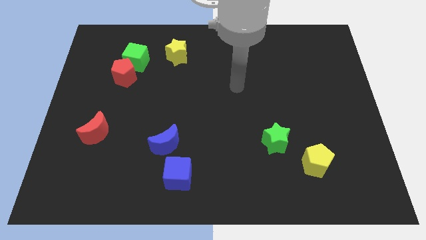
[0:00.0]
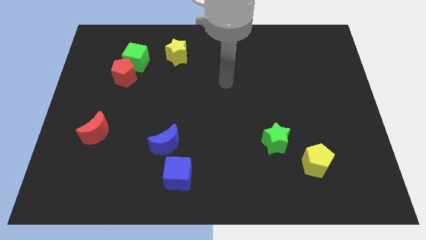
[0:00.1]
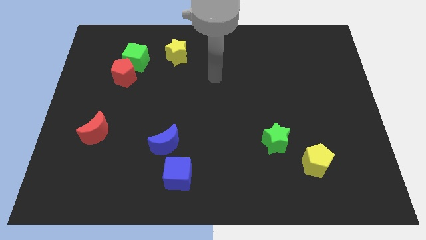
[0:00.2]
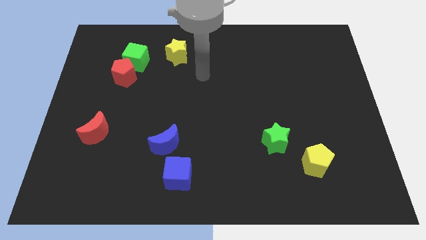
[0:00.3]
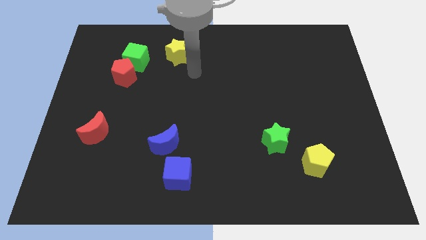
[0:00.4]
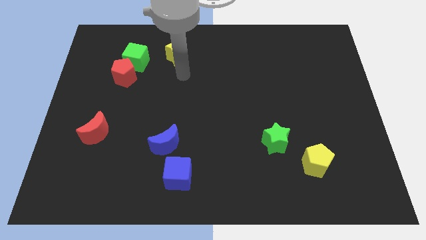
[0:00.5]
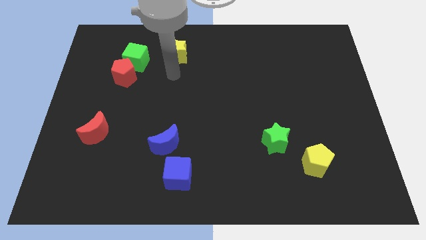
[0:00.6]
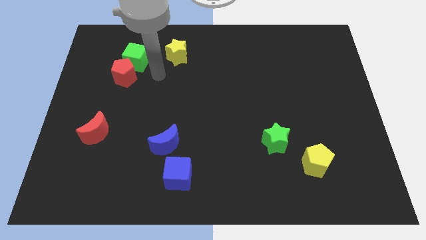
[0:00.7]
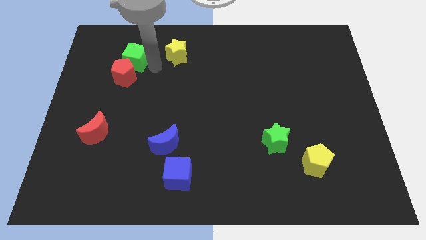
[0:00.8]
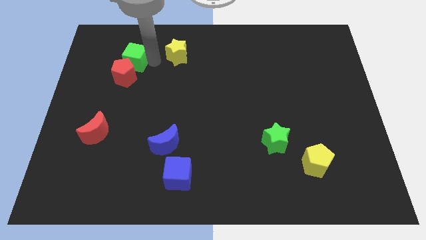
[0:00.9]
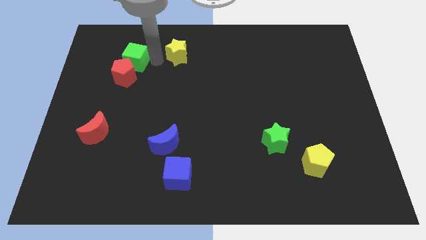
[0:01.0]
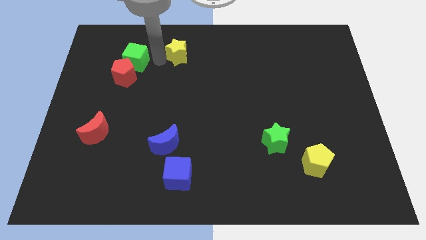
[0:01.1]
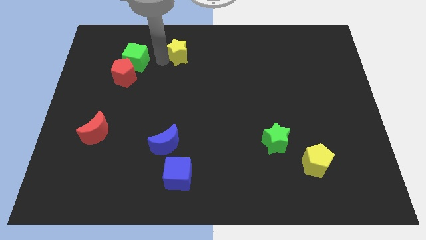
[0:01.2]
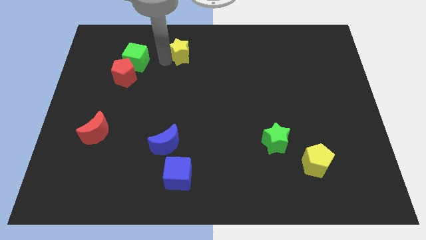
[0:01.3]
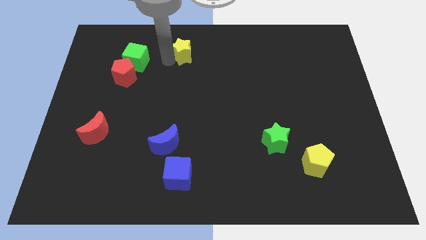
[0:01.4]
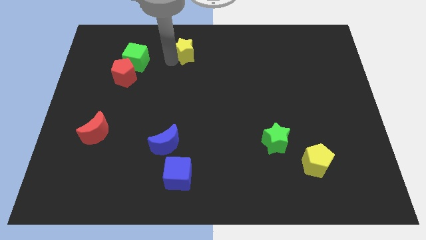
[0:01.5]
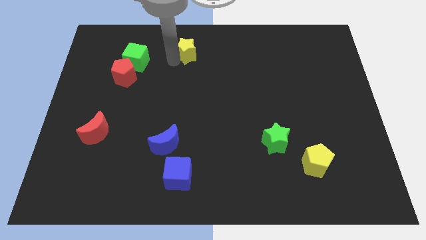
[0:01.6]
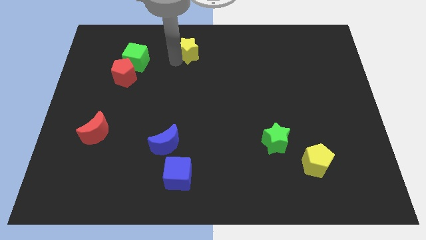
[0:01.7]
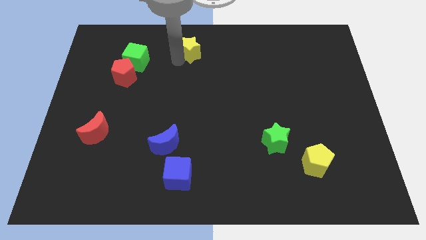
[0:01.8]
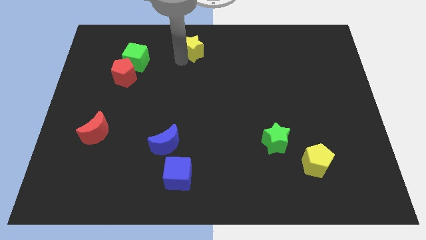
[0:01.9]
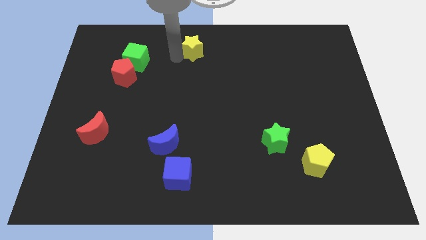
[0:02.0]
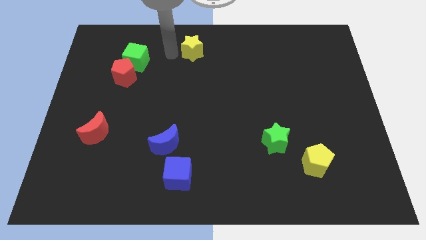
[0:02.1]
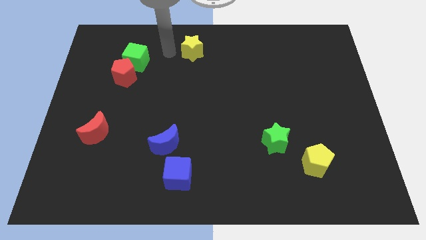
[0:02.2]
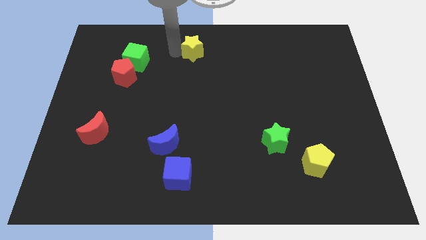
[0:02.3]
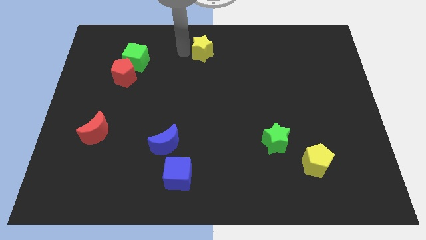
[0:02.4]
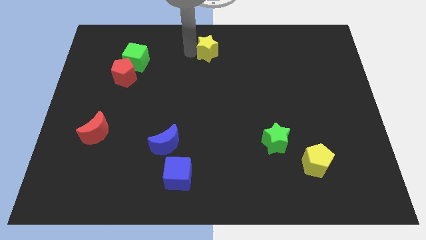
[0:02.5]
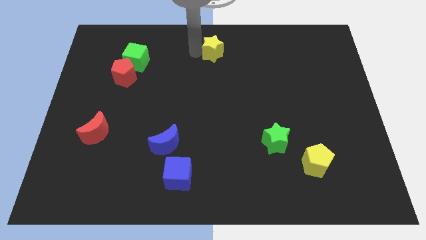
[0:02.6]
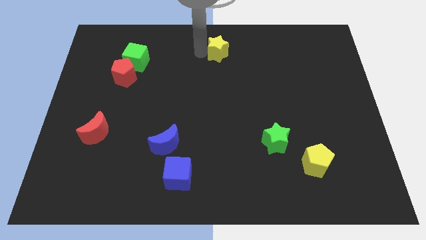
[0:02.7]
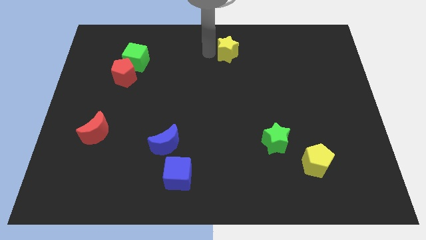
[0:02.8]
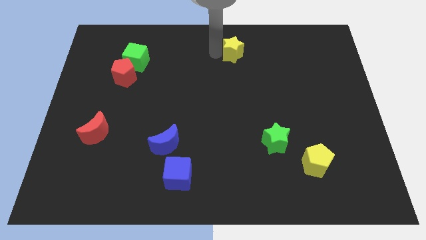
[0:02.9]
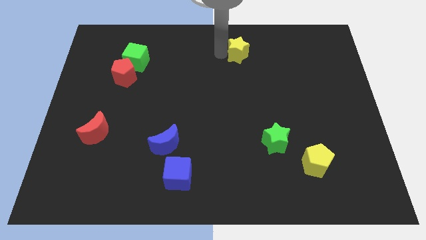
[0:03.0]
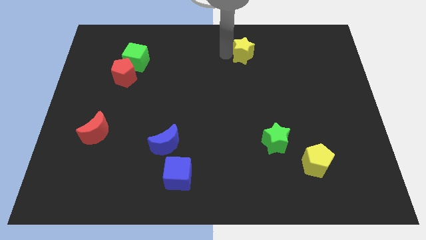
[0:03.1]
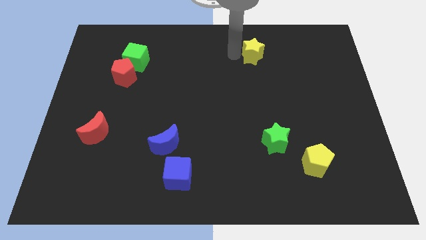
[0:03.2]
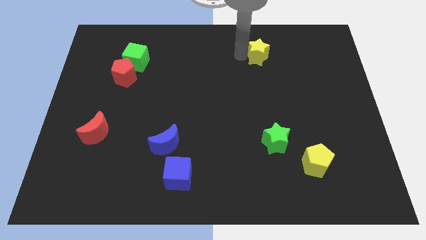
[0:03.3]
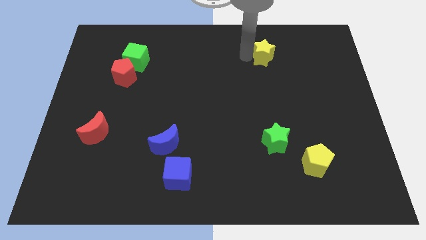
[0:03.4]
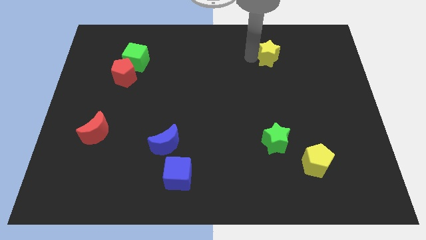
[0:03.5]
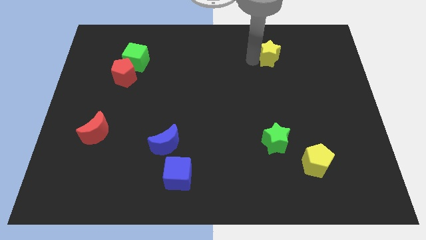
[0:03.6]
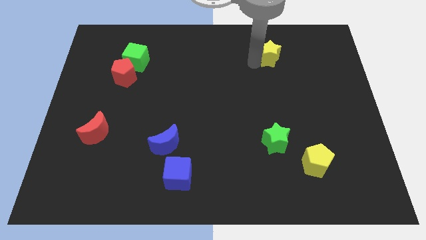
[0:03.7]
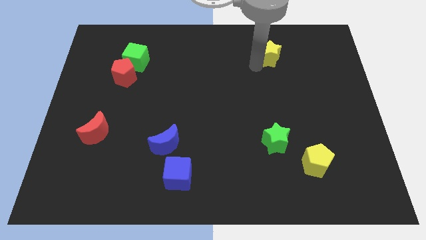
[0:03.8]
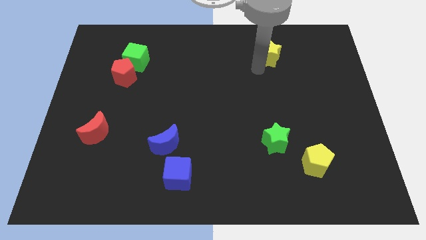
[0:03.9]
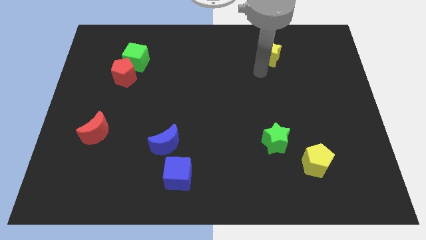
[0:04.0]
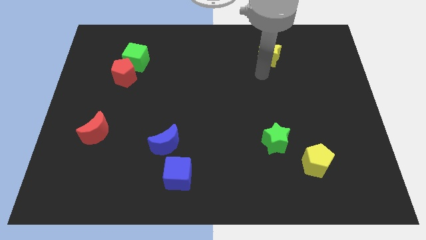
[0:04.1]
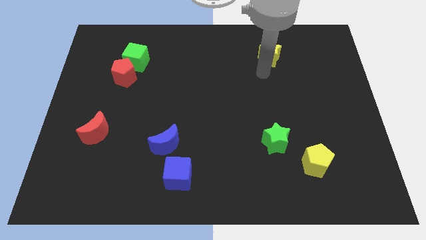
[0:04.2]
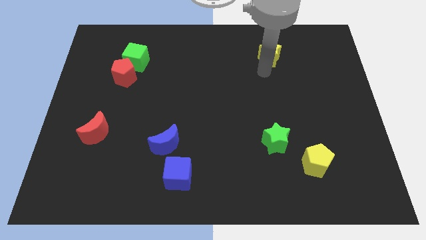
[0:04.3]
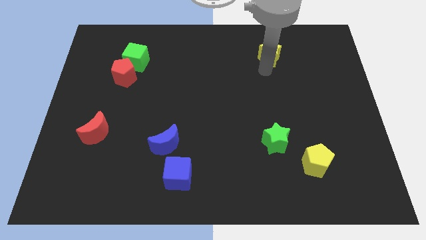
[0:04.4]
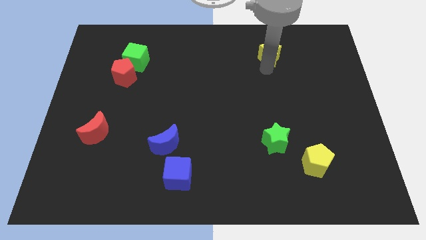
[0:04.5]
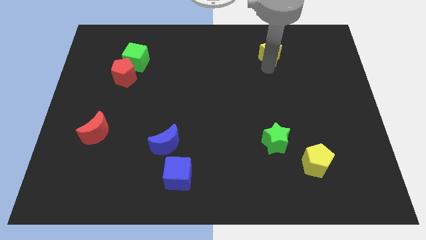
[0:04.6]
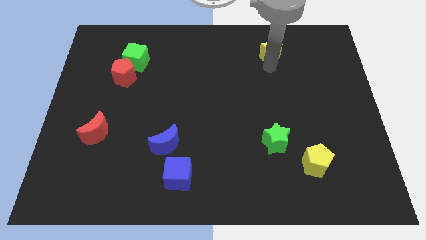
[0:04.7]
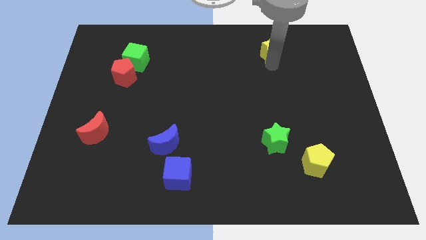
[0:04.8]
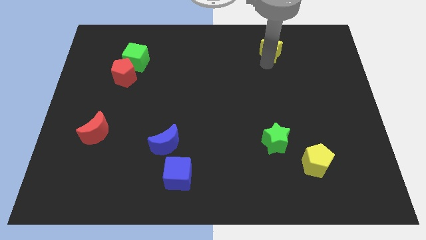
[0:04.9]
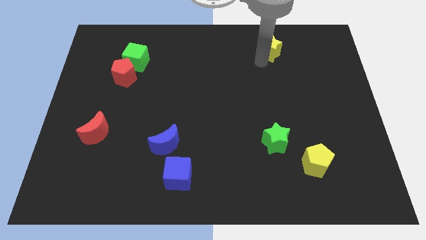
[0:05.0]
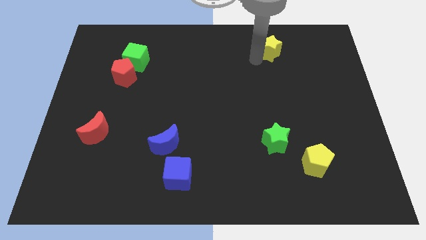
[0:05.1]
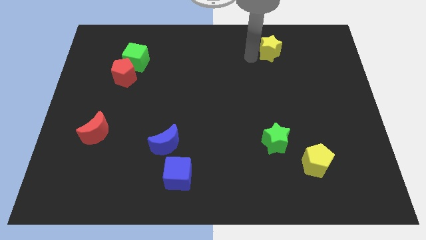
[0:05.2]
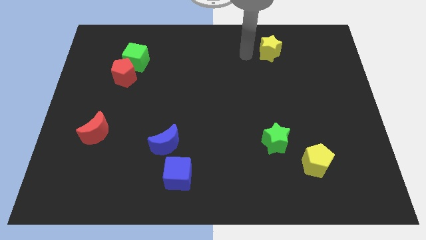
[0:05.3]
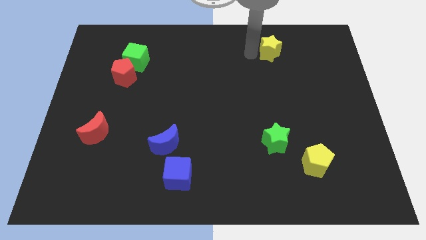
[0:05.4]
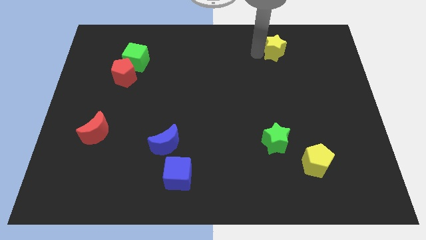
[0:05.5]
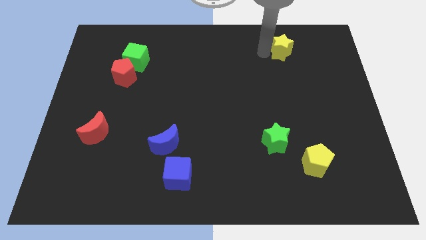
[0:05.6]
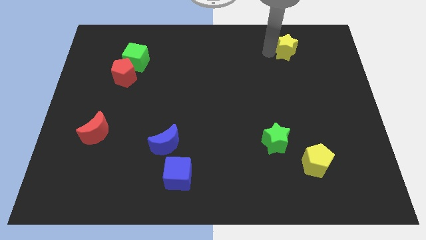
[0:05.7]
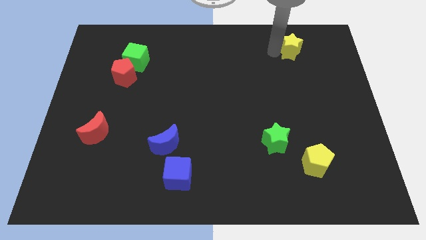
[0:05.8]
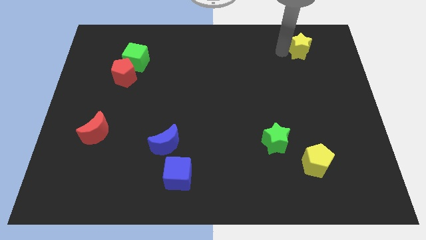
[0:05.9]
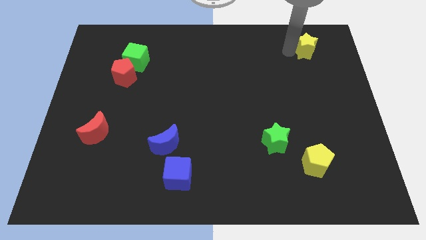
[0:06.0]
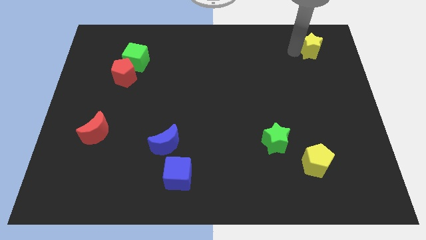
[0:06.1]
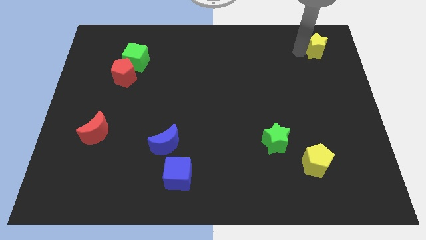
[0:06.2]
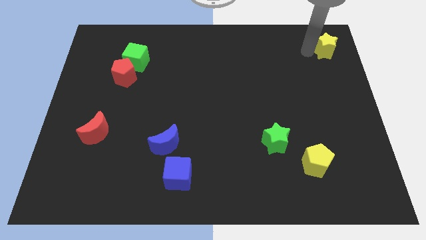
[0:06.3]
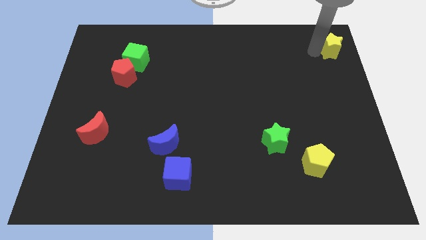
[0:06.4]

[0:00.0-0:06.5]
slide the yellow star to the top right

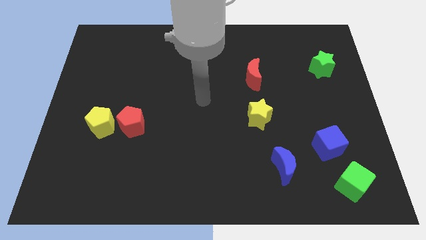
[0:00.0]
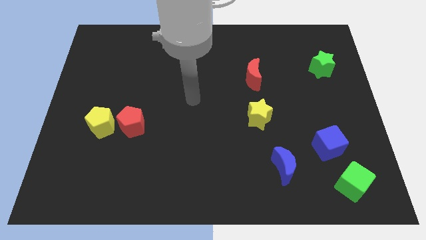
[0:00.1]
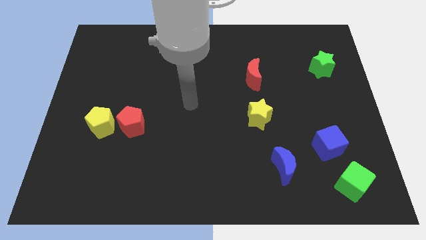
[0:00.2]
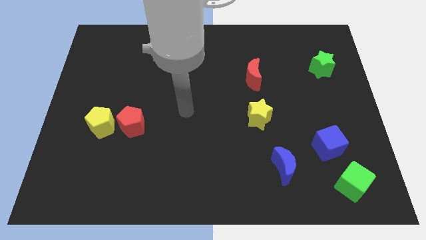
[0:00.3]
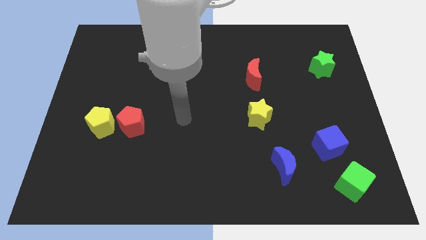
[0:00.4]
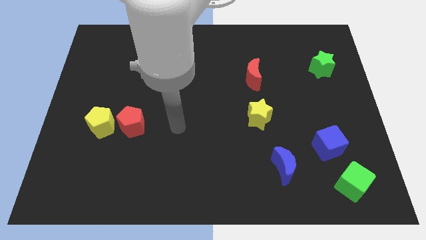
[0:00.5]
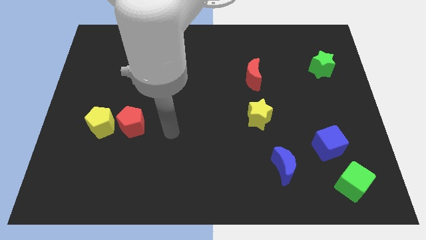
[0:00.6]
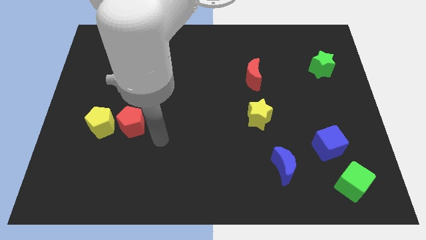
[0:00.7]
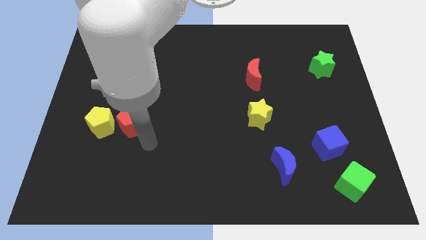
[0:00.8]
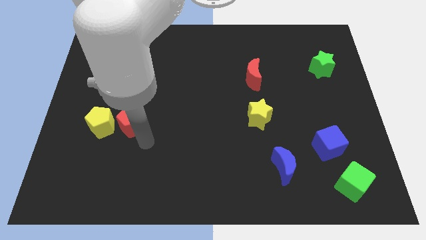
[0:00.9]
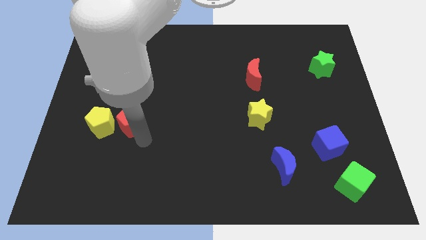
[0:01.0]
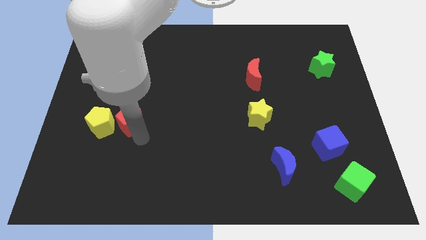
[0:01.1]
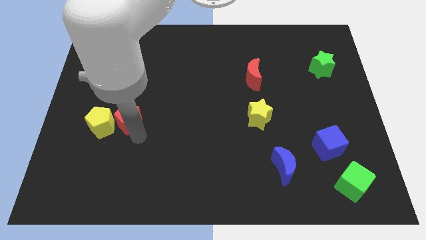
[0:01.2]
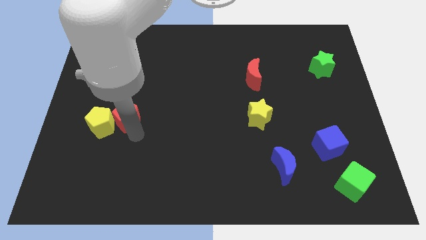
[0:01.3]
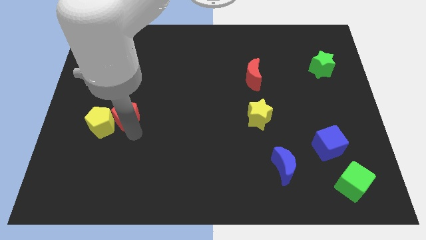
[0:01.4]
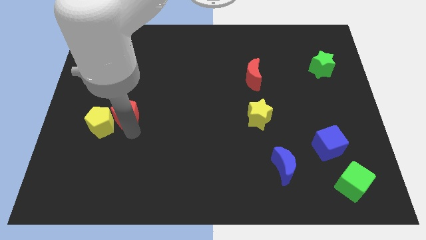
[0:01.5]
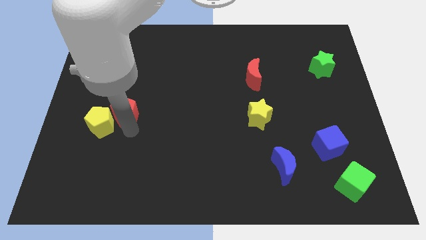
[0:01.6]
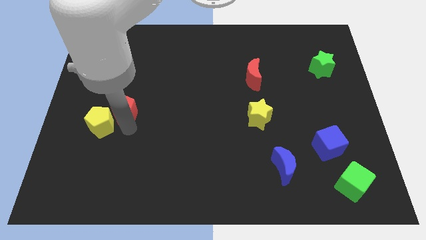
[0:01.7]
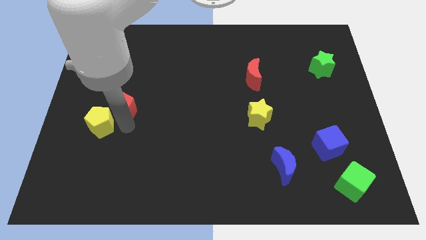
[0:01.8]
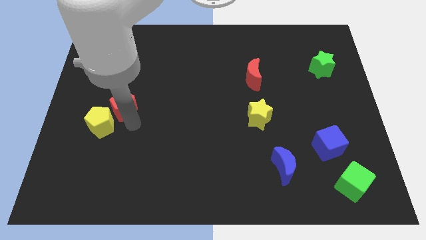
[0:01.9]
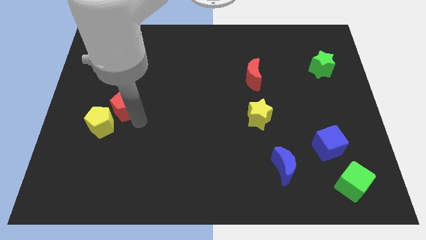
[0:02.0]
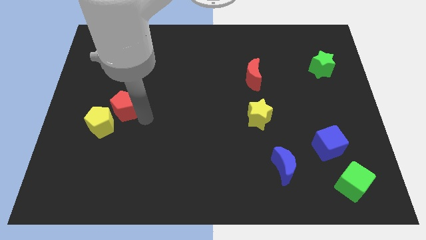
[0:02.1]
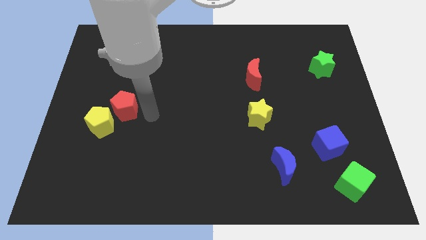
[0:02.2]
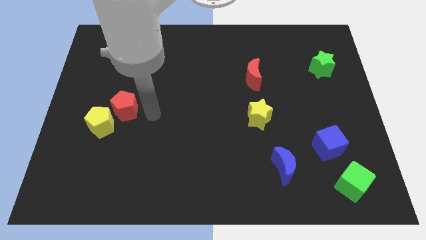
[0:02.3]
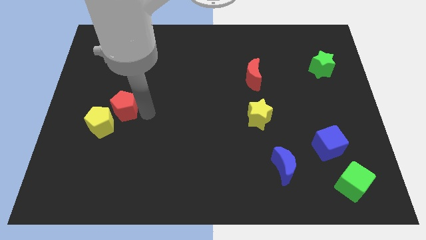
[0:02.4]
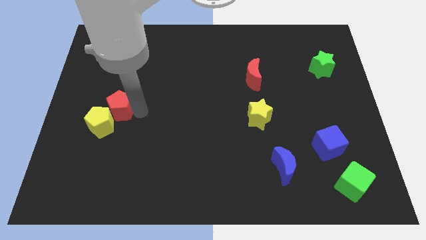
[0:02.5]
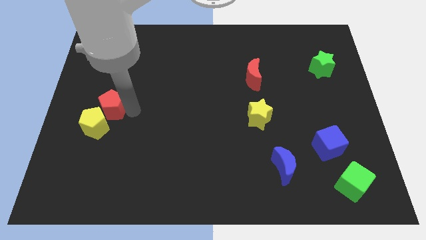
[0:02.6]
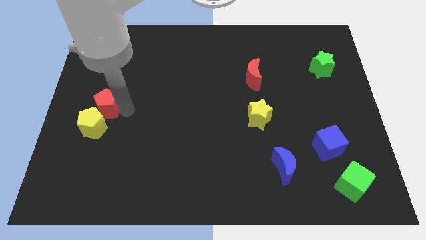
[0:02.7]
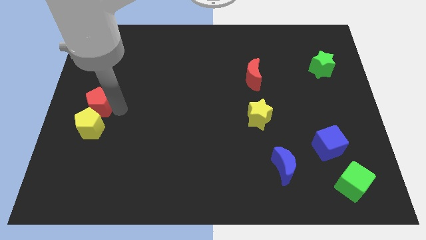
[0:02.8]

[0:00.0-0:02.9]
move the red pentagon to the left side of the board
